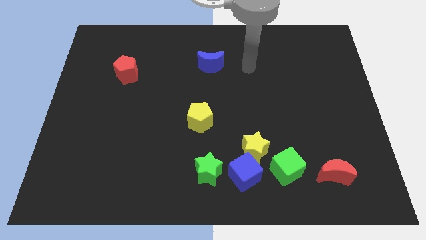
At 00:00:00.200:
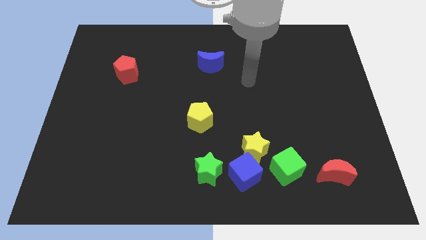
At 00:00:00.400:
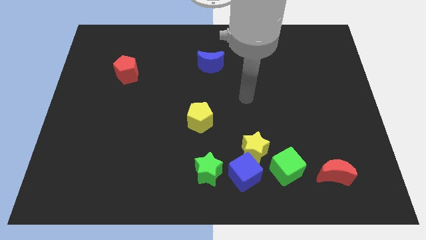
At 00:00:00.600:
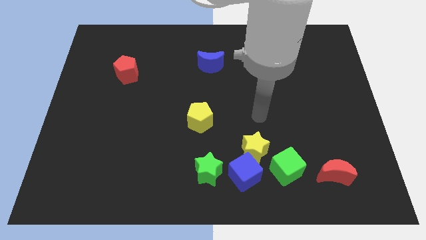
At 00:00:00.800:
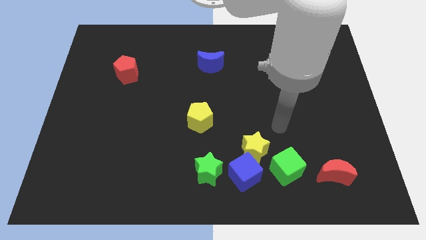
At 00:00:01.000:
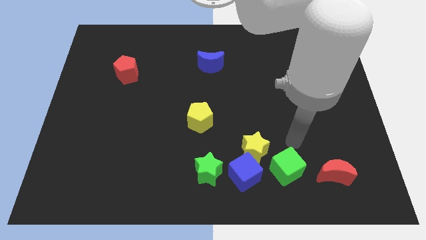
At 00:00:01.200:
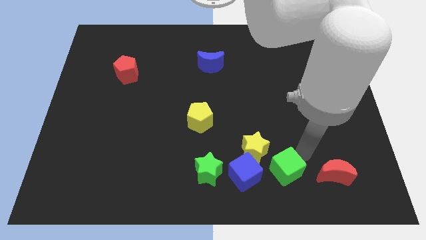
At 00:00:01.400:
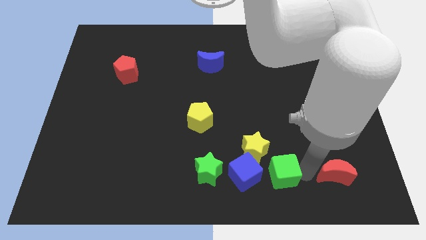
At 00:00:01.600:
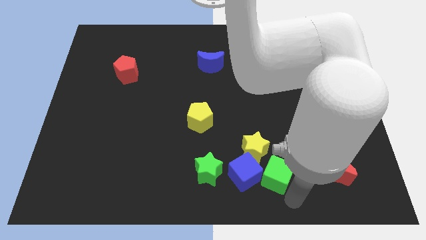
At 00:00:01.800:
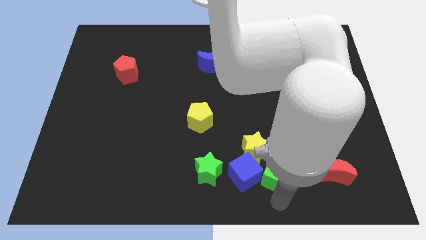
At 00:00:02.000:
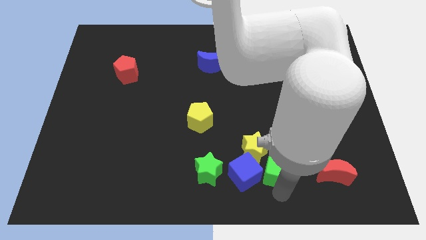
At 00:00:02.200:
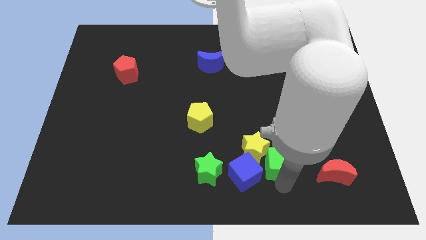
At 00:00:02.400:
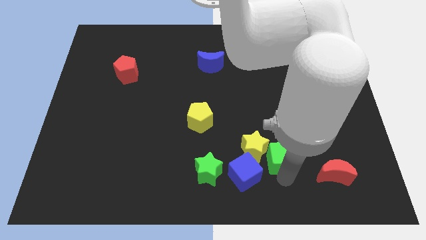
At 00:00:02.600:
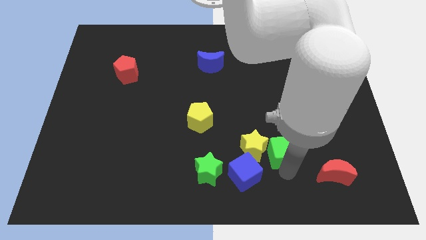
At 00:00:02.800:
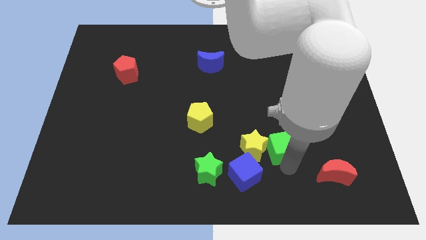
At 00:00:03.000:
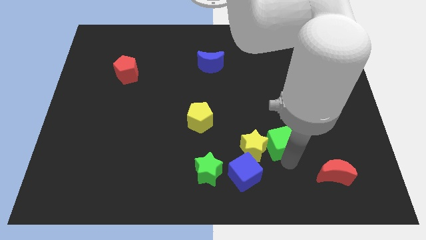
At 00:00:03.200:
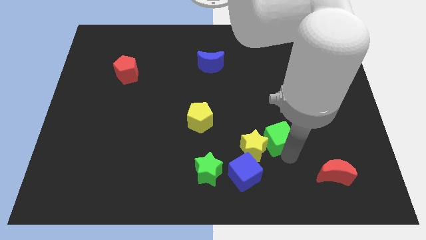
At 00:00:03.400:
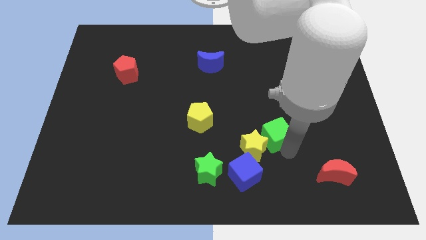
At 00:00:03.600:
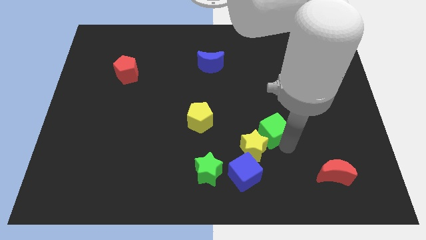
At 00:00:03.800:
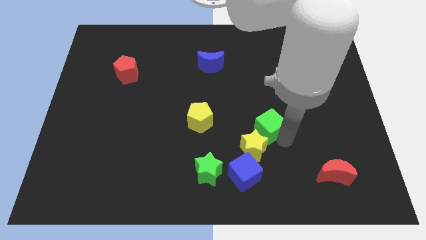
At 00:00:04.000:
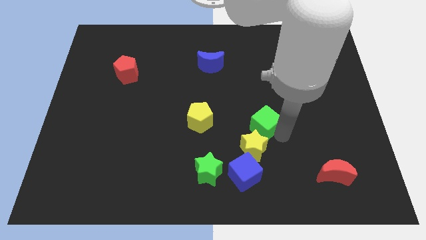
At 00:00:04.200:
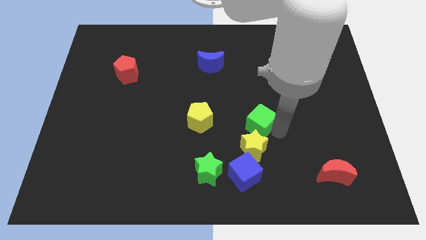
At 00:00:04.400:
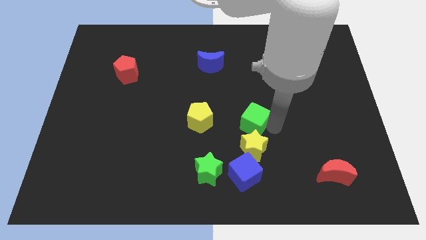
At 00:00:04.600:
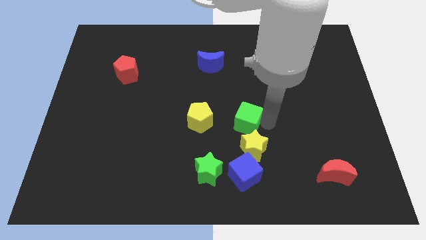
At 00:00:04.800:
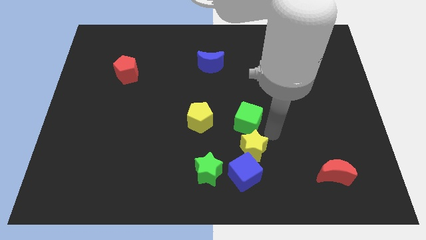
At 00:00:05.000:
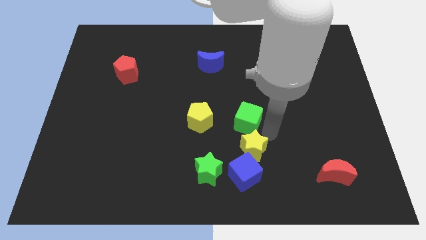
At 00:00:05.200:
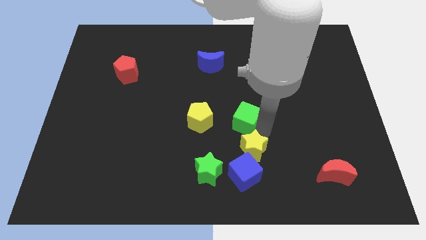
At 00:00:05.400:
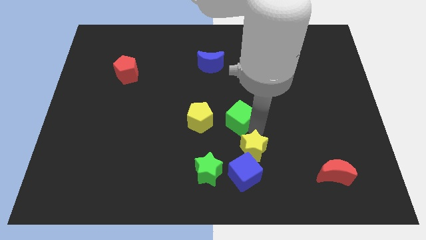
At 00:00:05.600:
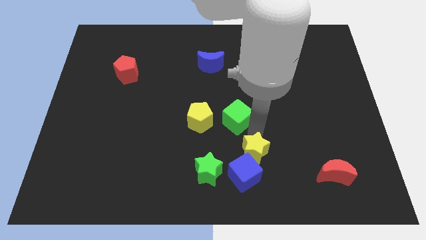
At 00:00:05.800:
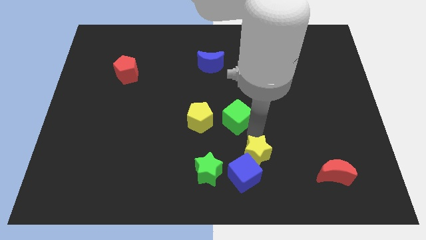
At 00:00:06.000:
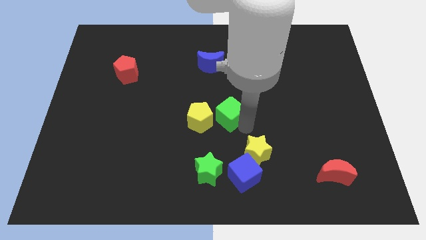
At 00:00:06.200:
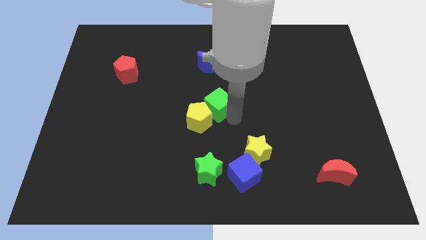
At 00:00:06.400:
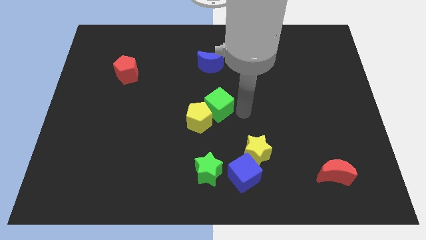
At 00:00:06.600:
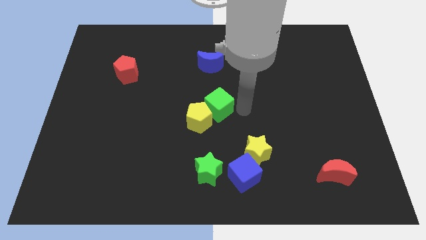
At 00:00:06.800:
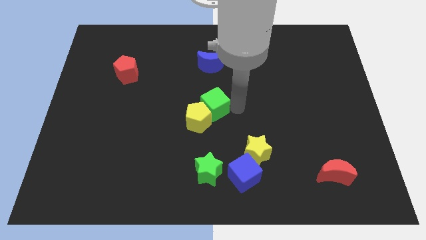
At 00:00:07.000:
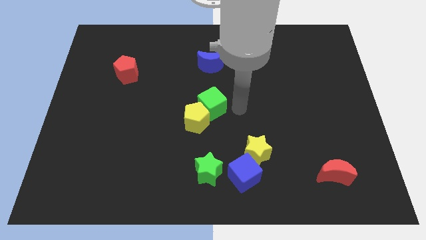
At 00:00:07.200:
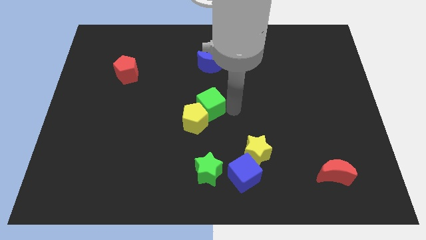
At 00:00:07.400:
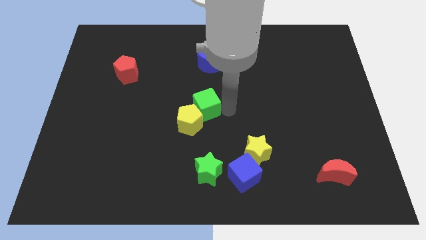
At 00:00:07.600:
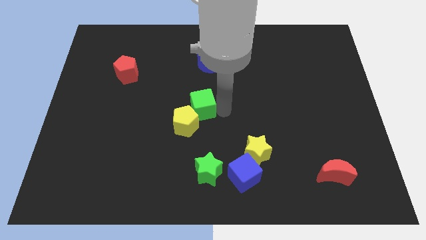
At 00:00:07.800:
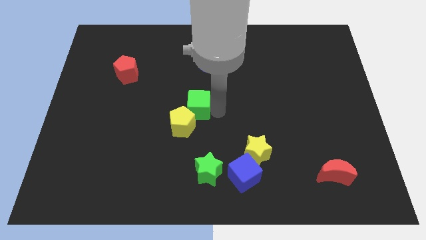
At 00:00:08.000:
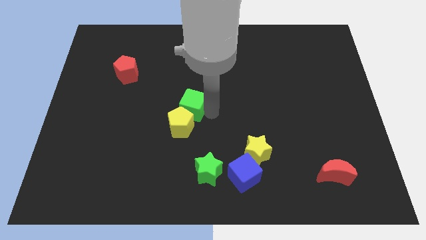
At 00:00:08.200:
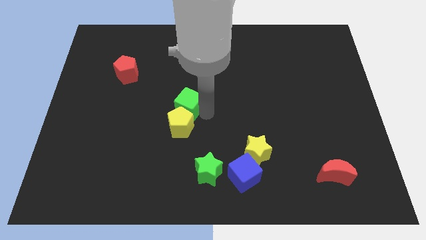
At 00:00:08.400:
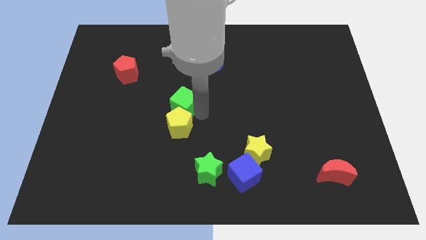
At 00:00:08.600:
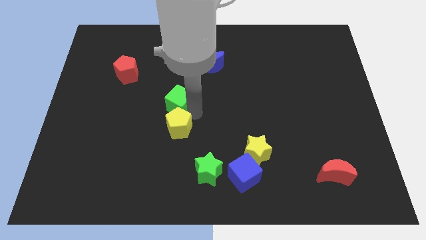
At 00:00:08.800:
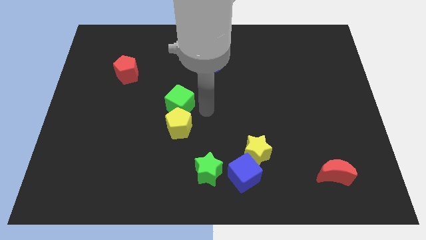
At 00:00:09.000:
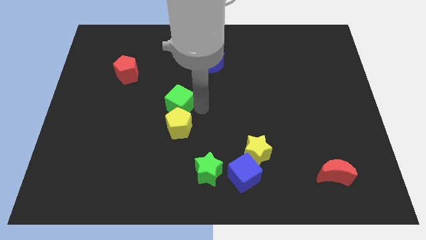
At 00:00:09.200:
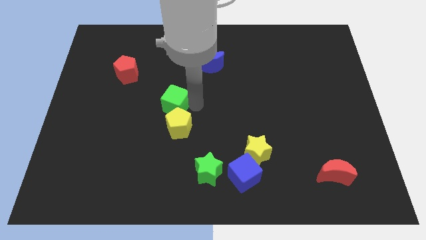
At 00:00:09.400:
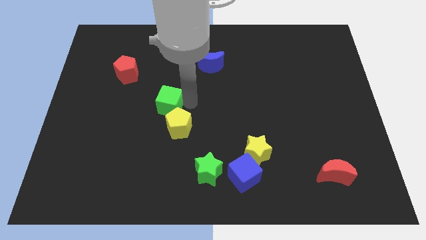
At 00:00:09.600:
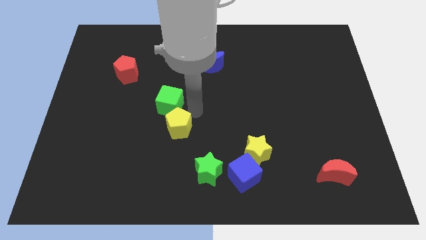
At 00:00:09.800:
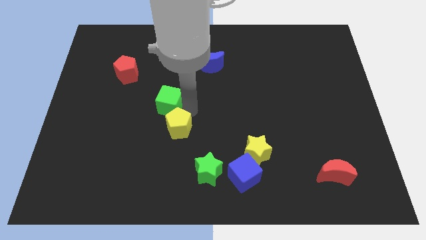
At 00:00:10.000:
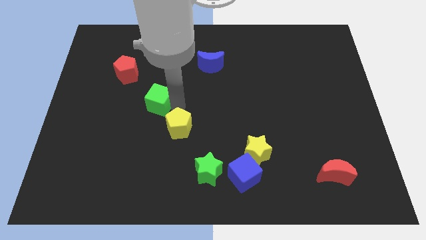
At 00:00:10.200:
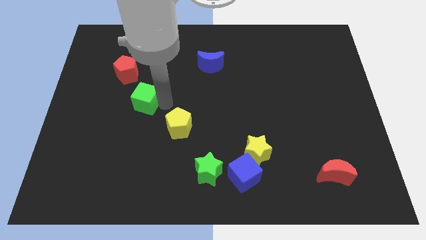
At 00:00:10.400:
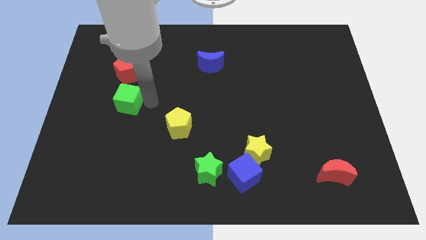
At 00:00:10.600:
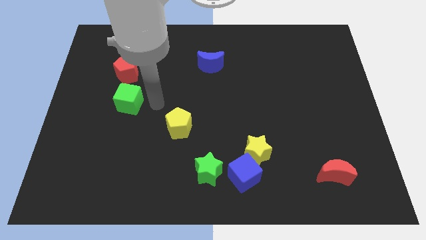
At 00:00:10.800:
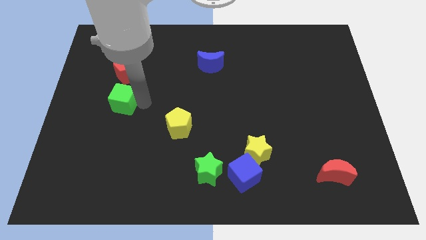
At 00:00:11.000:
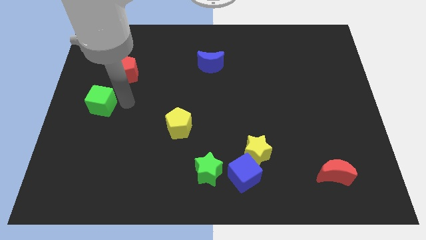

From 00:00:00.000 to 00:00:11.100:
slide the green cube to the center left

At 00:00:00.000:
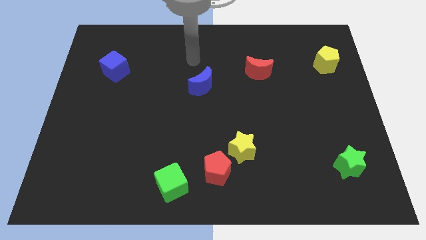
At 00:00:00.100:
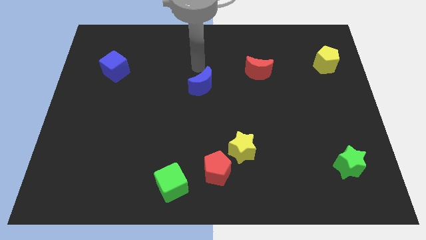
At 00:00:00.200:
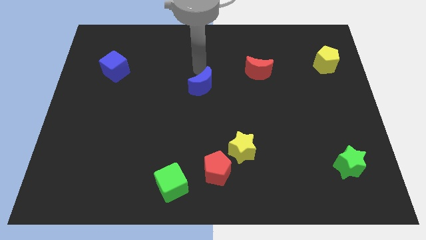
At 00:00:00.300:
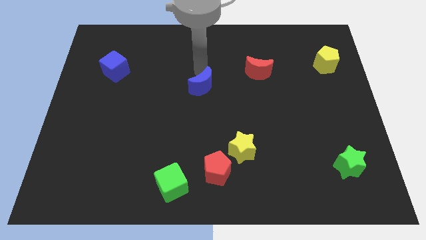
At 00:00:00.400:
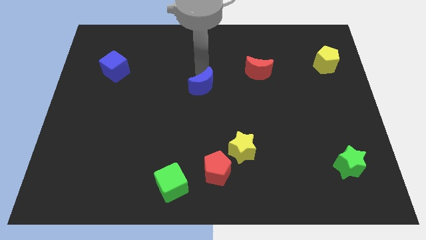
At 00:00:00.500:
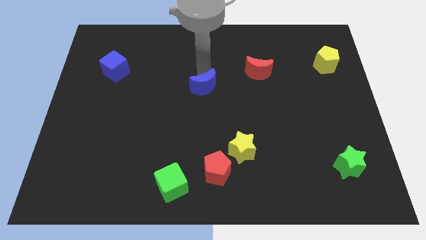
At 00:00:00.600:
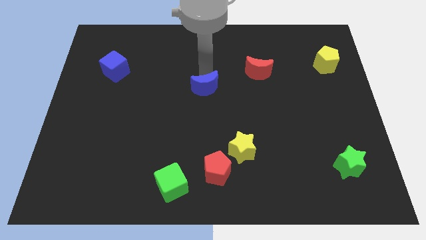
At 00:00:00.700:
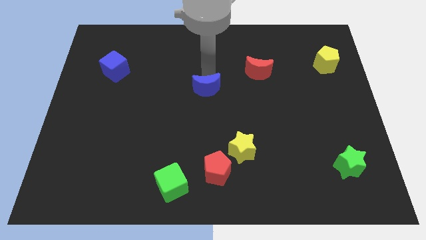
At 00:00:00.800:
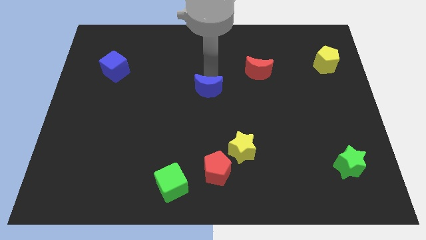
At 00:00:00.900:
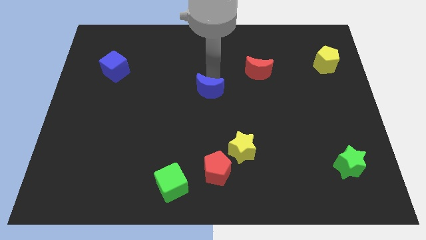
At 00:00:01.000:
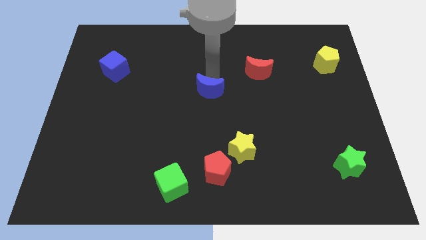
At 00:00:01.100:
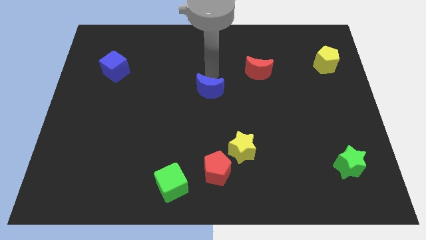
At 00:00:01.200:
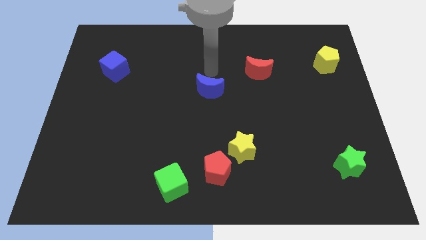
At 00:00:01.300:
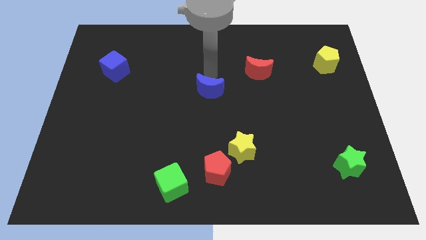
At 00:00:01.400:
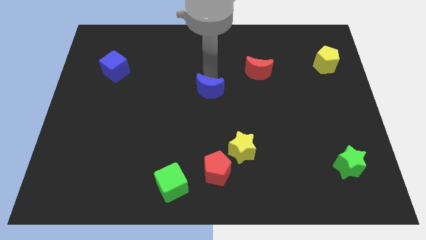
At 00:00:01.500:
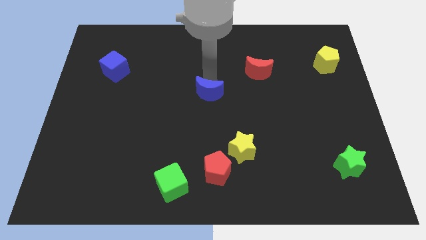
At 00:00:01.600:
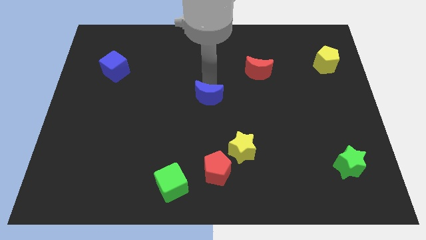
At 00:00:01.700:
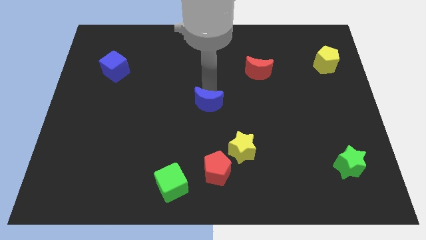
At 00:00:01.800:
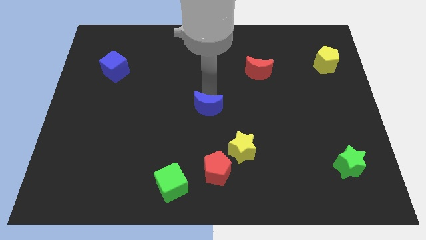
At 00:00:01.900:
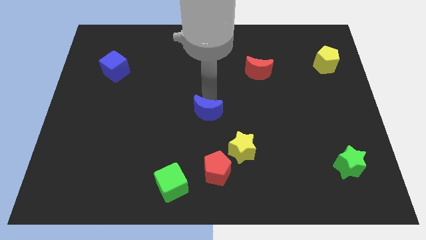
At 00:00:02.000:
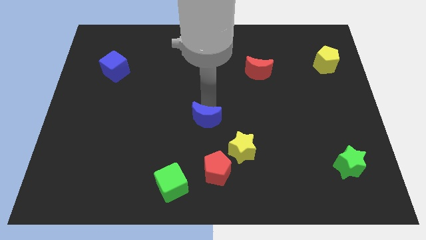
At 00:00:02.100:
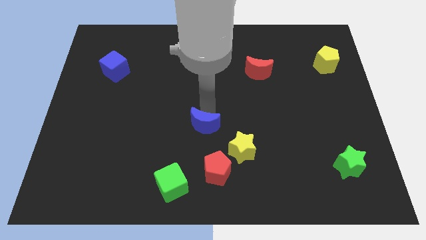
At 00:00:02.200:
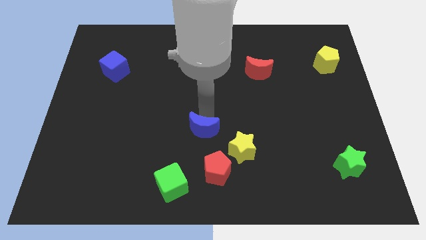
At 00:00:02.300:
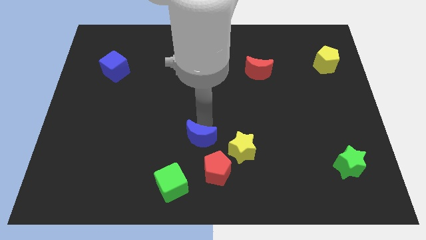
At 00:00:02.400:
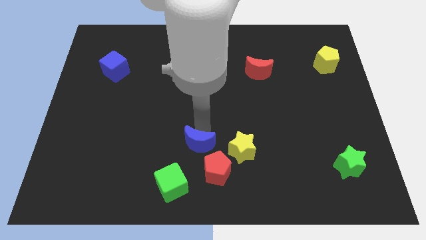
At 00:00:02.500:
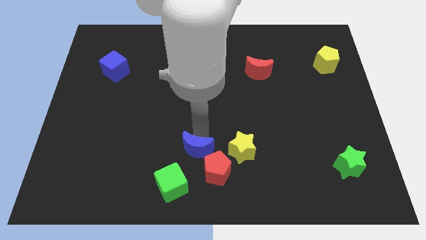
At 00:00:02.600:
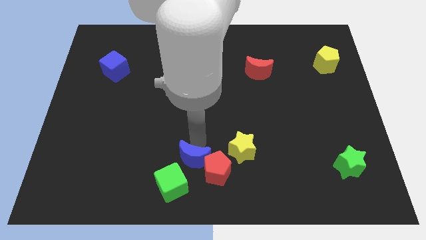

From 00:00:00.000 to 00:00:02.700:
move the blue moon to the bottom side
